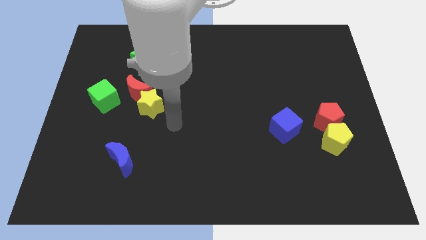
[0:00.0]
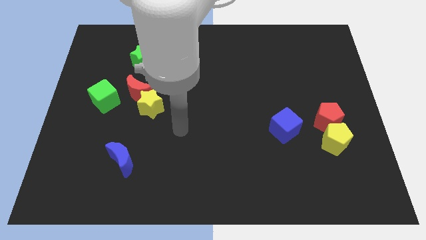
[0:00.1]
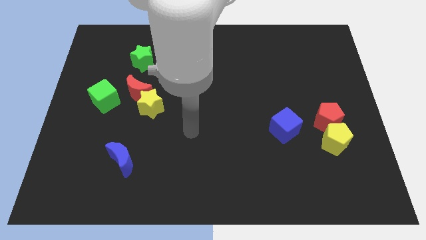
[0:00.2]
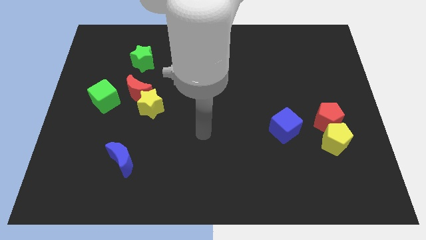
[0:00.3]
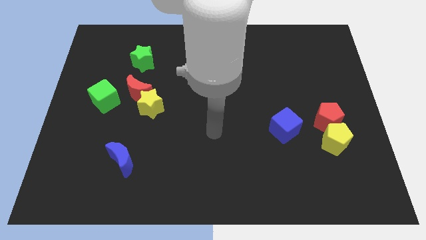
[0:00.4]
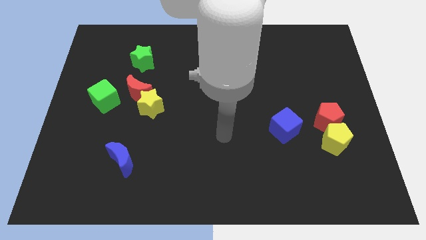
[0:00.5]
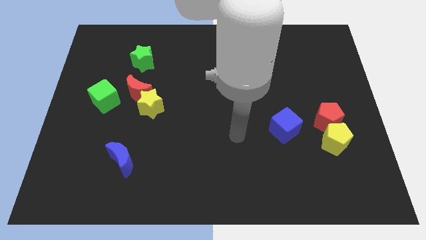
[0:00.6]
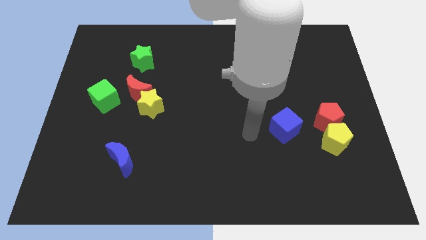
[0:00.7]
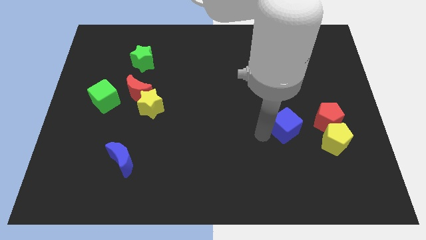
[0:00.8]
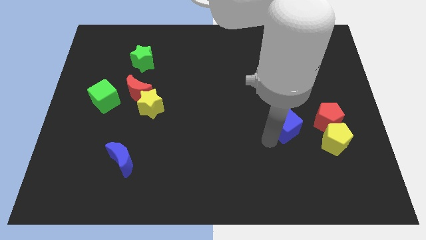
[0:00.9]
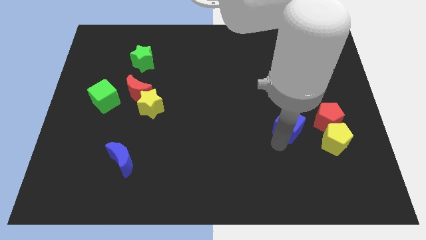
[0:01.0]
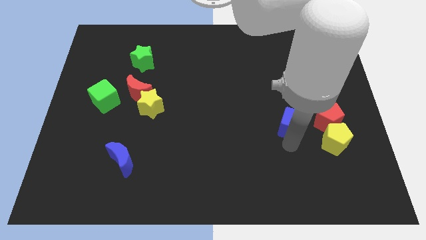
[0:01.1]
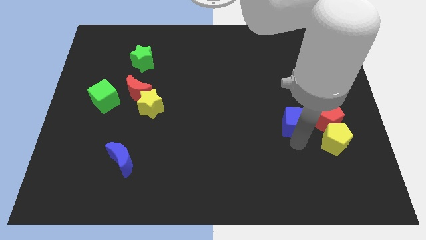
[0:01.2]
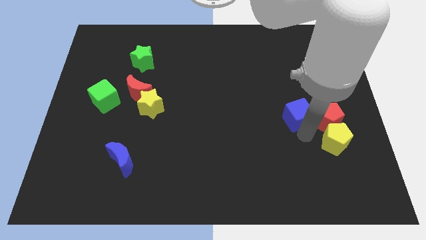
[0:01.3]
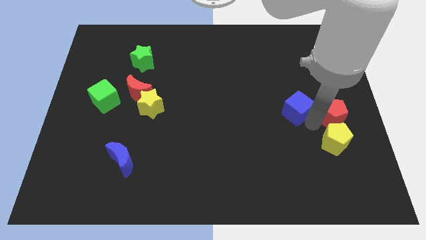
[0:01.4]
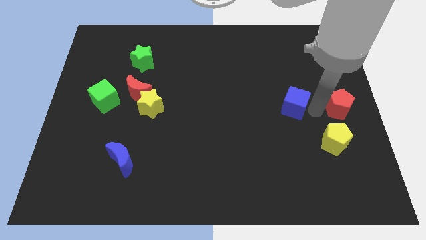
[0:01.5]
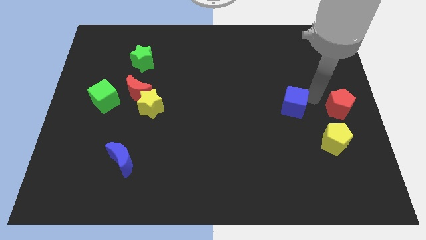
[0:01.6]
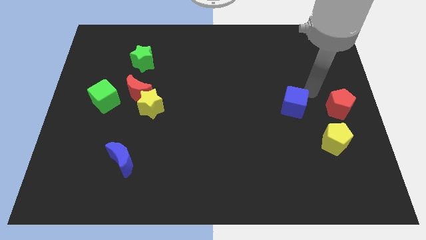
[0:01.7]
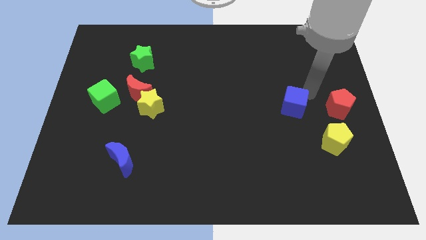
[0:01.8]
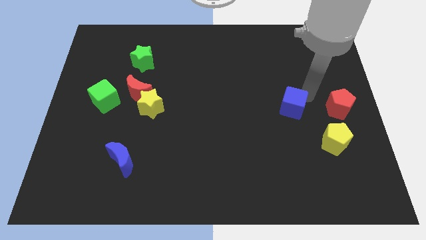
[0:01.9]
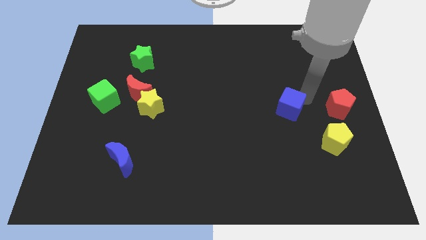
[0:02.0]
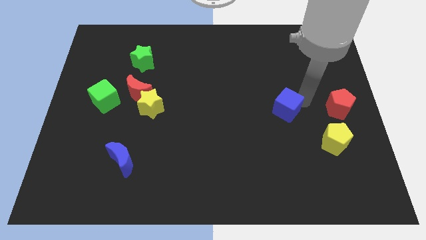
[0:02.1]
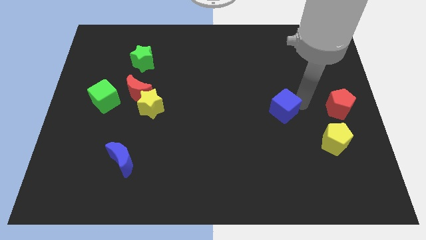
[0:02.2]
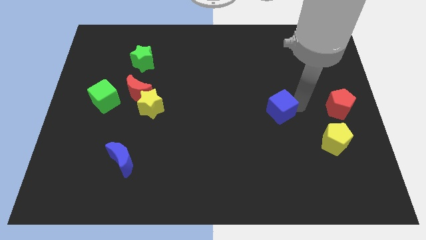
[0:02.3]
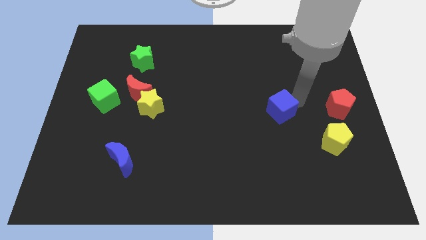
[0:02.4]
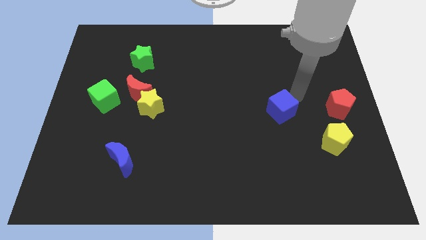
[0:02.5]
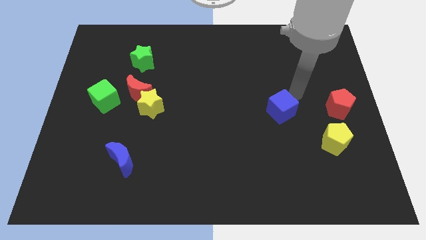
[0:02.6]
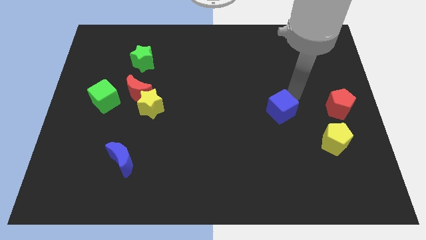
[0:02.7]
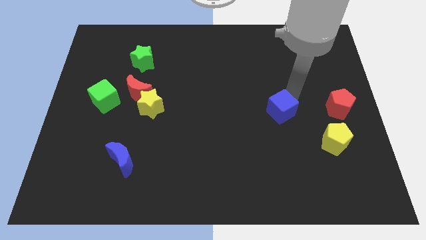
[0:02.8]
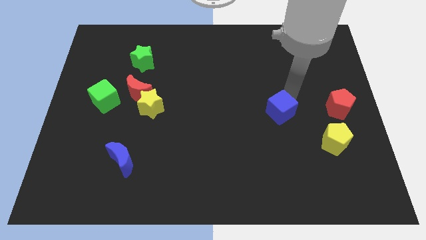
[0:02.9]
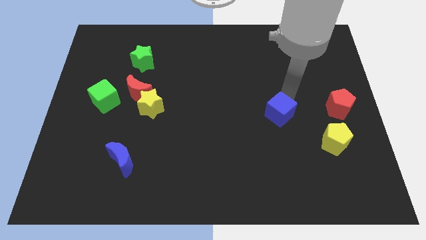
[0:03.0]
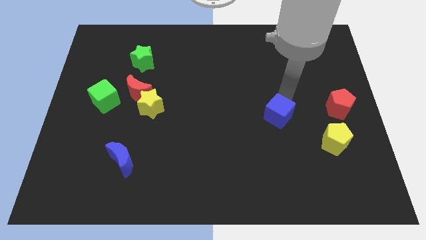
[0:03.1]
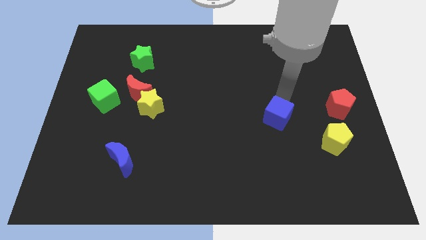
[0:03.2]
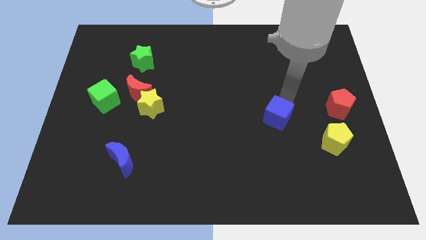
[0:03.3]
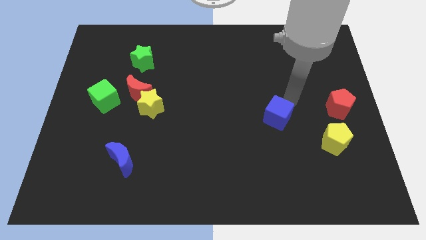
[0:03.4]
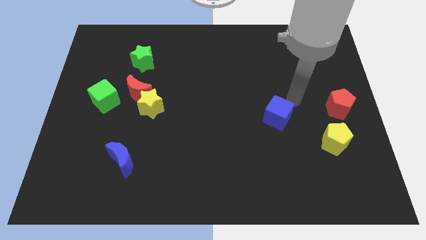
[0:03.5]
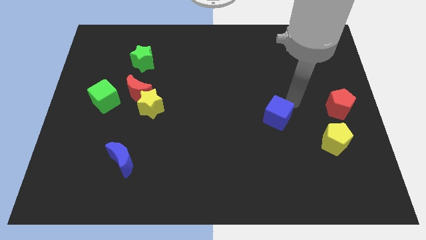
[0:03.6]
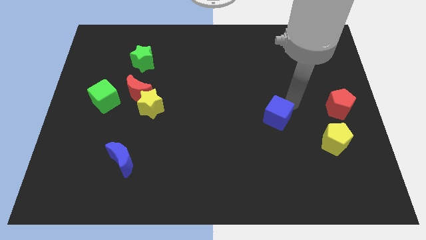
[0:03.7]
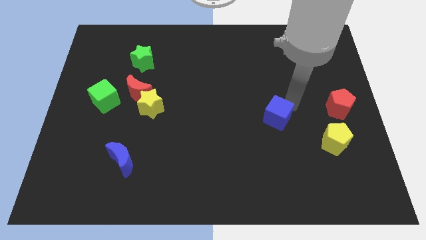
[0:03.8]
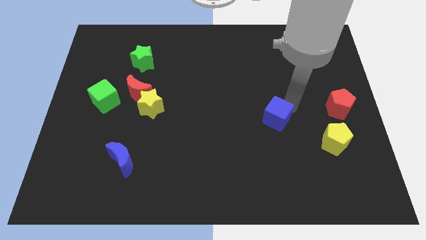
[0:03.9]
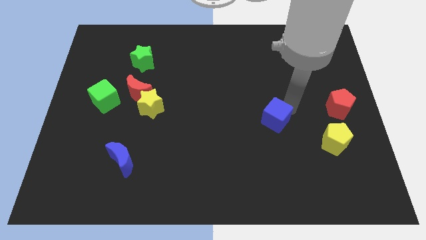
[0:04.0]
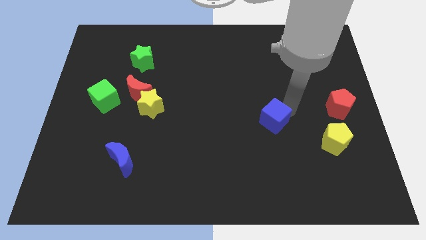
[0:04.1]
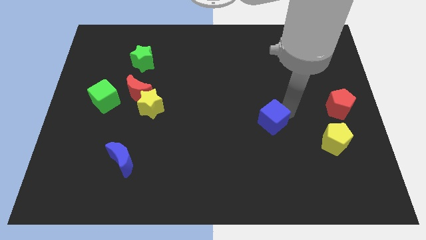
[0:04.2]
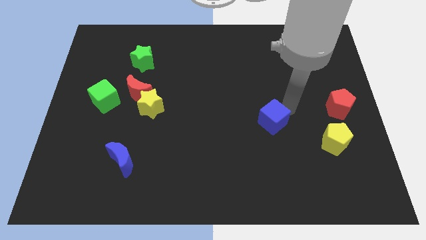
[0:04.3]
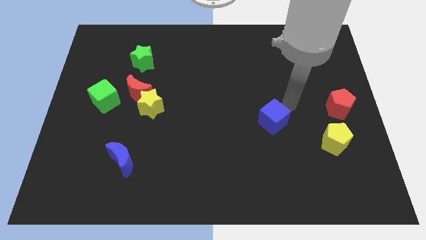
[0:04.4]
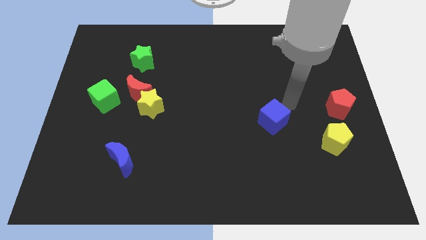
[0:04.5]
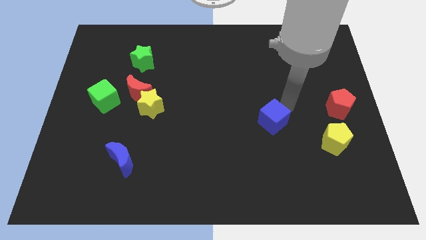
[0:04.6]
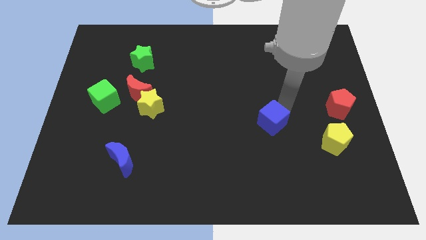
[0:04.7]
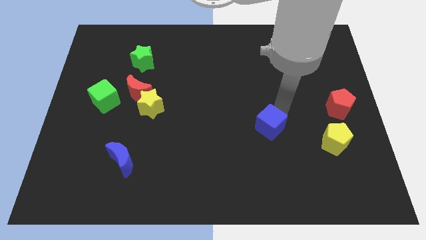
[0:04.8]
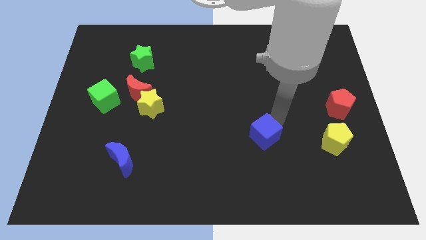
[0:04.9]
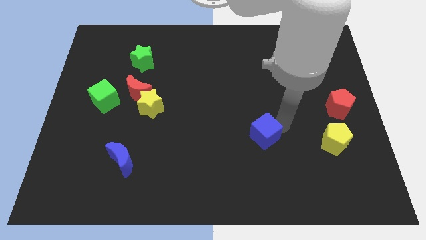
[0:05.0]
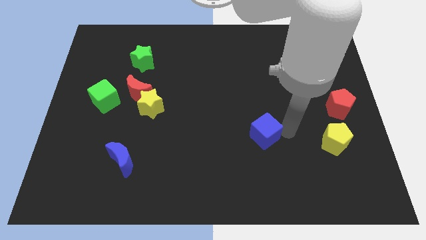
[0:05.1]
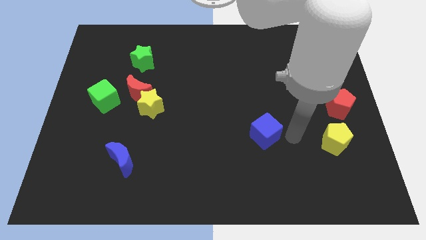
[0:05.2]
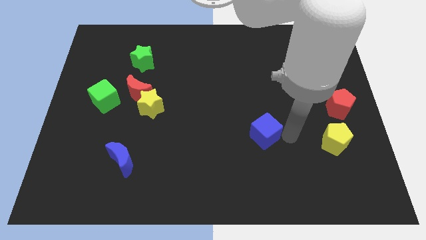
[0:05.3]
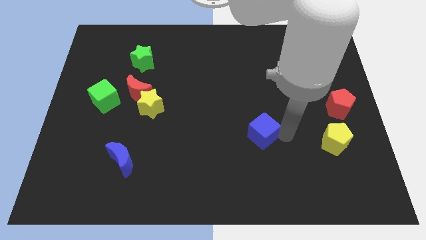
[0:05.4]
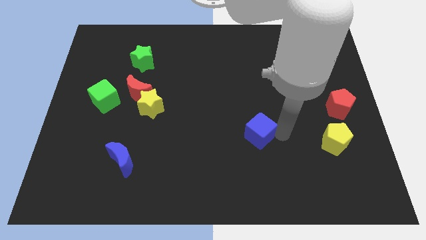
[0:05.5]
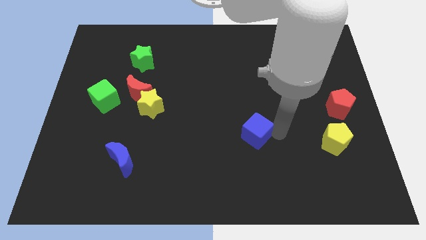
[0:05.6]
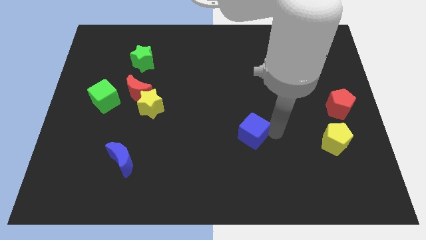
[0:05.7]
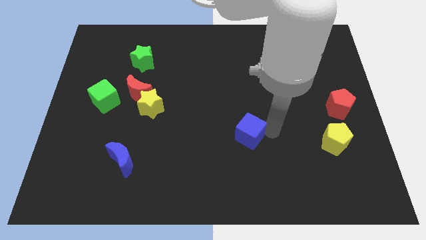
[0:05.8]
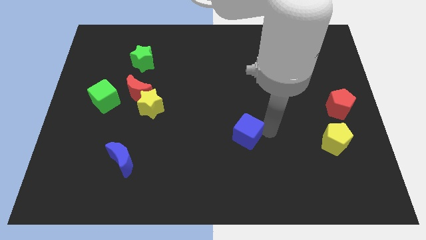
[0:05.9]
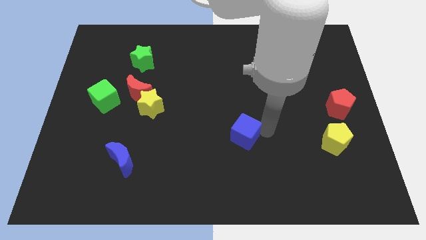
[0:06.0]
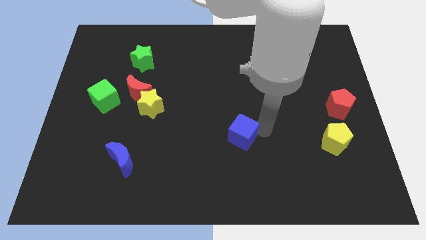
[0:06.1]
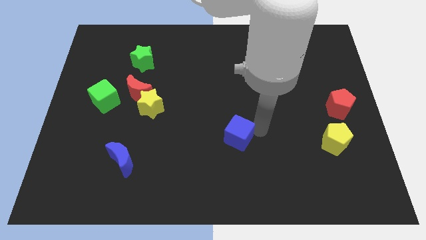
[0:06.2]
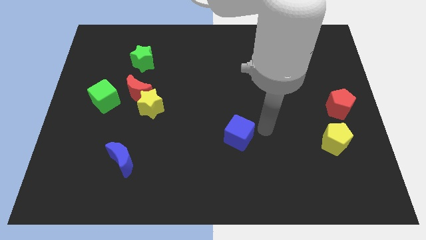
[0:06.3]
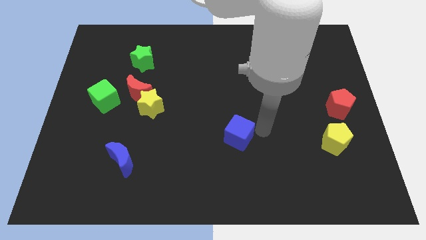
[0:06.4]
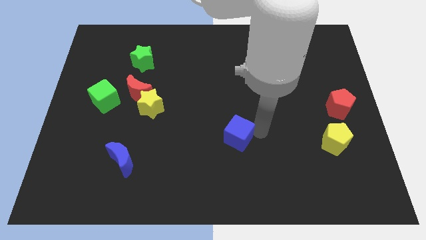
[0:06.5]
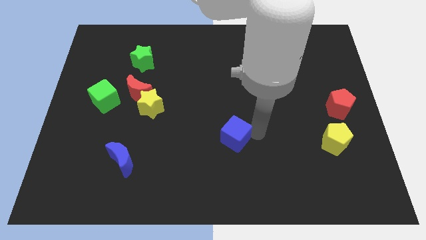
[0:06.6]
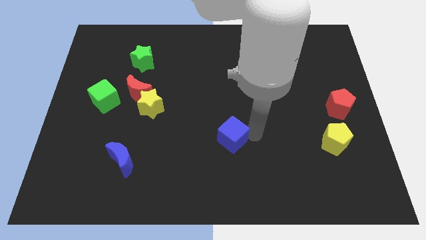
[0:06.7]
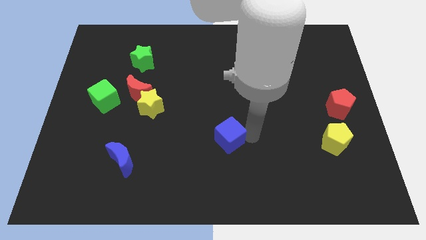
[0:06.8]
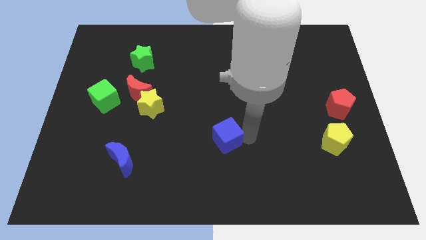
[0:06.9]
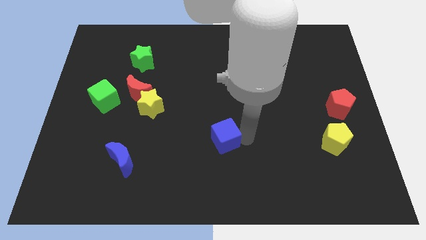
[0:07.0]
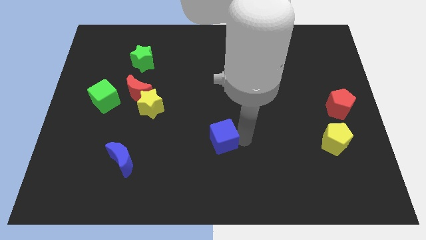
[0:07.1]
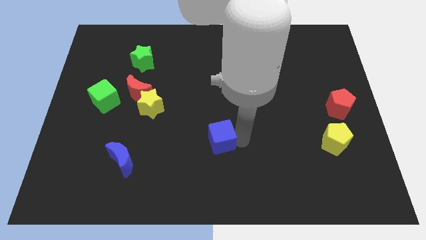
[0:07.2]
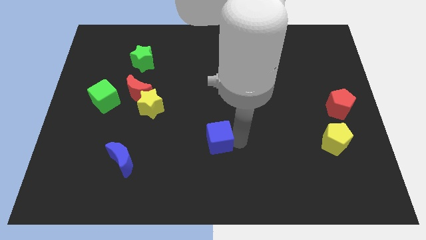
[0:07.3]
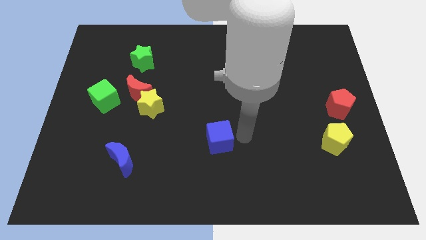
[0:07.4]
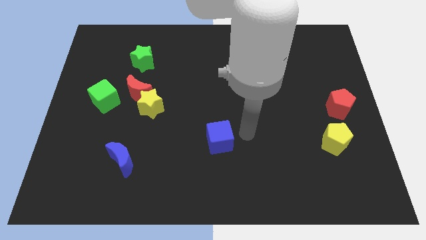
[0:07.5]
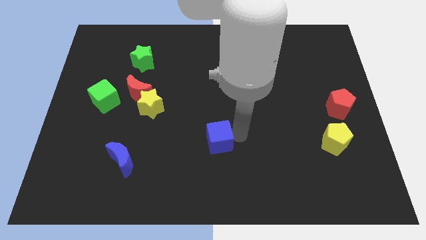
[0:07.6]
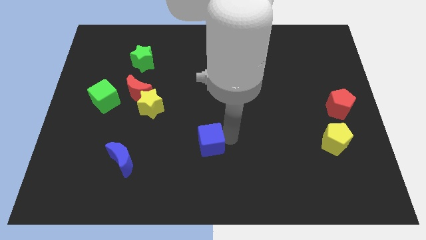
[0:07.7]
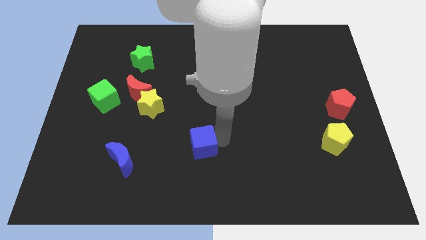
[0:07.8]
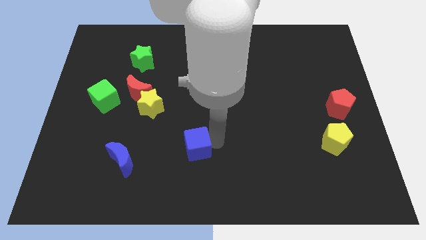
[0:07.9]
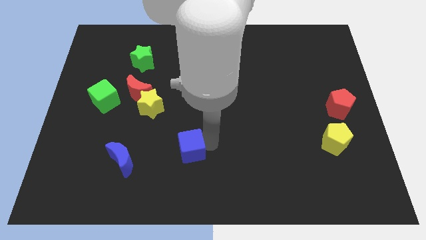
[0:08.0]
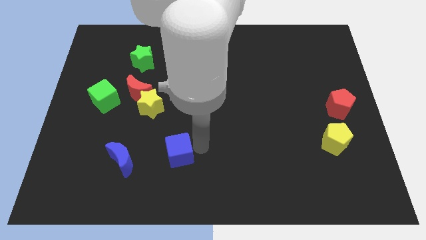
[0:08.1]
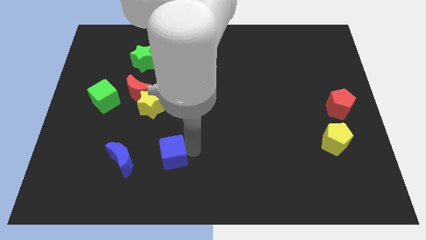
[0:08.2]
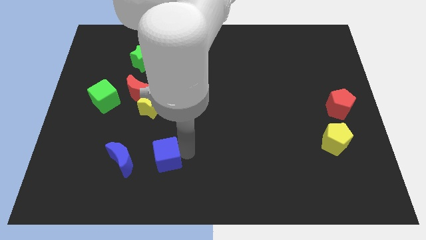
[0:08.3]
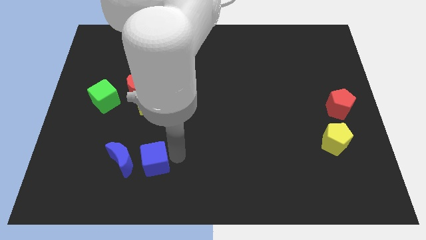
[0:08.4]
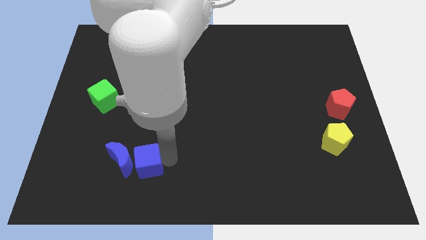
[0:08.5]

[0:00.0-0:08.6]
move the blue cube to the blue moon
